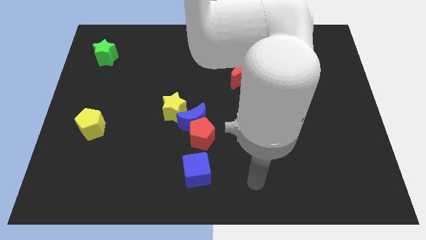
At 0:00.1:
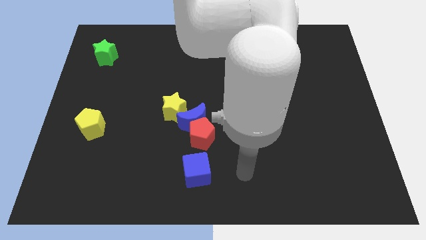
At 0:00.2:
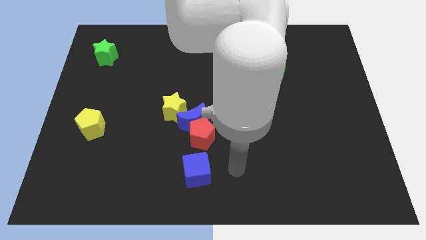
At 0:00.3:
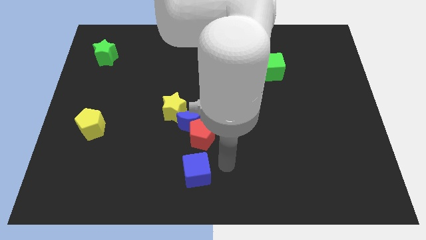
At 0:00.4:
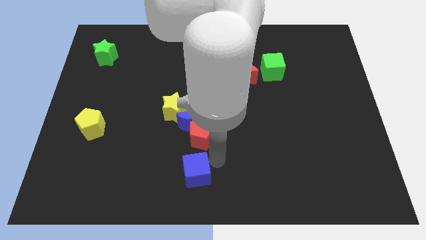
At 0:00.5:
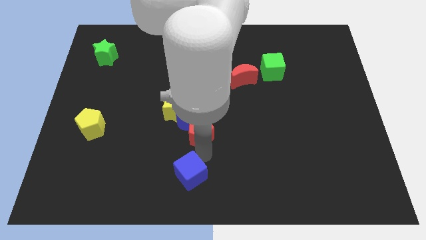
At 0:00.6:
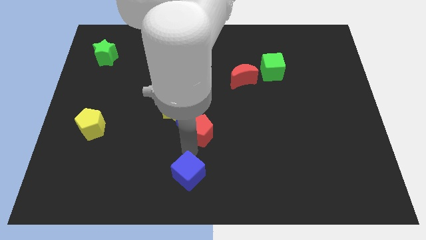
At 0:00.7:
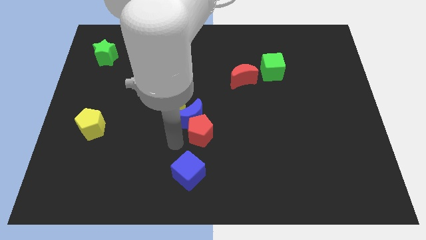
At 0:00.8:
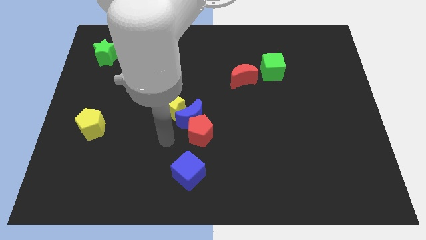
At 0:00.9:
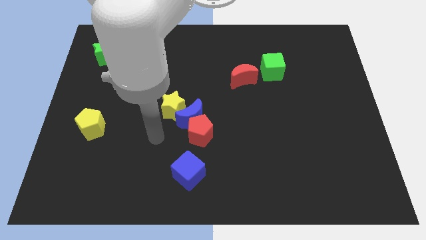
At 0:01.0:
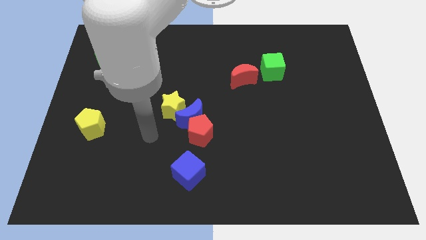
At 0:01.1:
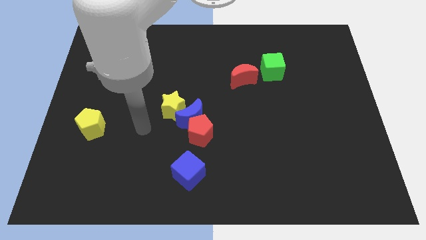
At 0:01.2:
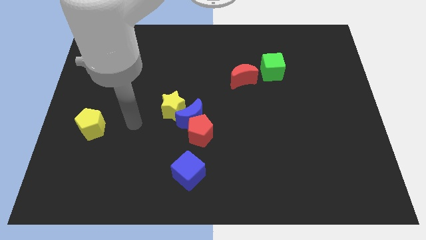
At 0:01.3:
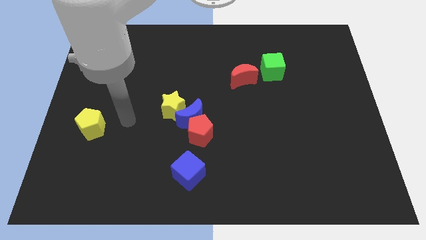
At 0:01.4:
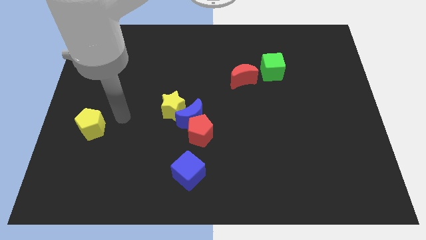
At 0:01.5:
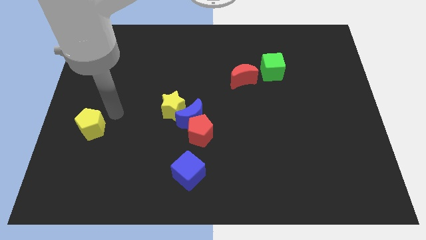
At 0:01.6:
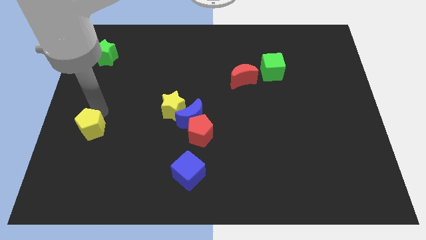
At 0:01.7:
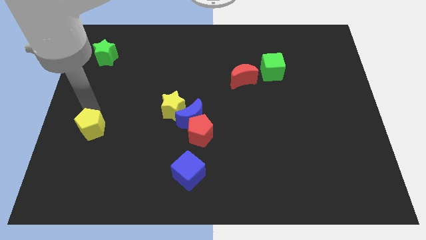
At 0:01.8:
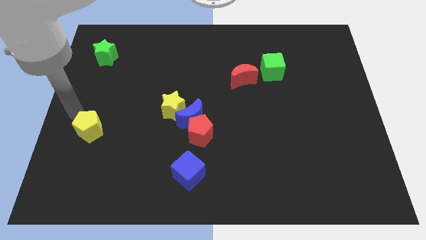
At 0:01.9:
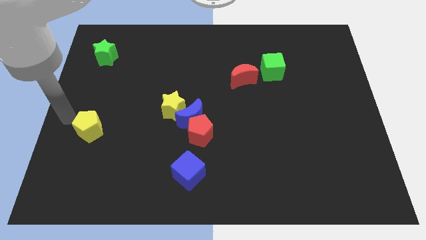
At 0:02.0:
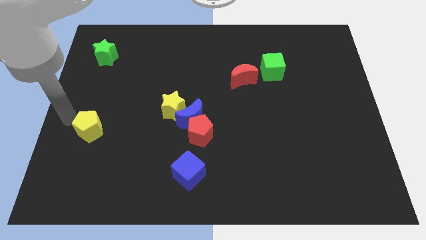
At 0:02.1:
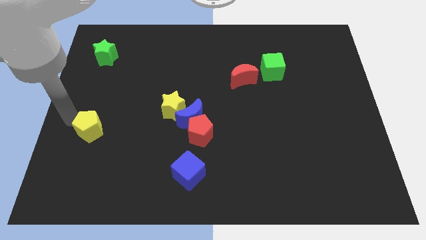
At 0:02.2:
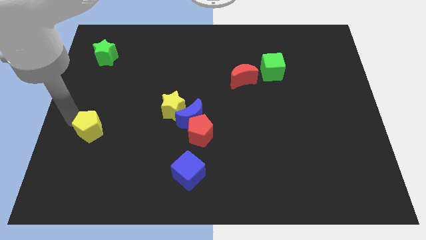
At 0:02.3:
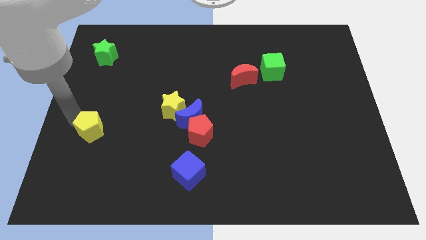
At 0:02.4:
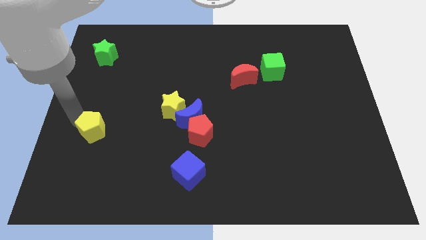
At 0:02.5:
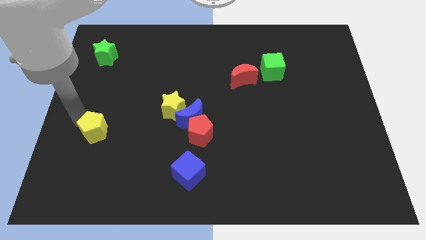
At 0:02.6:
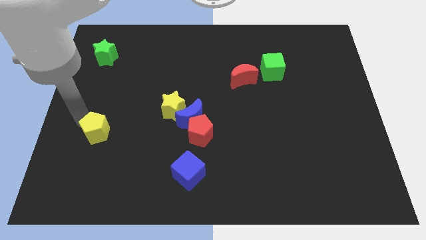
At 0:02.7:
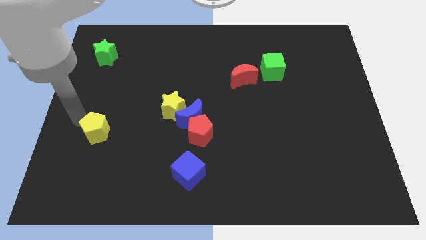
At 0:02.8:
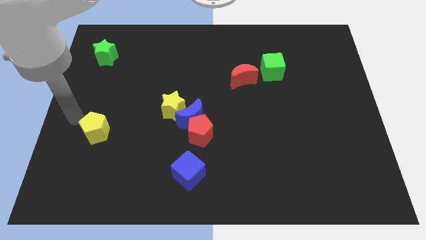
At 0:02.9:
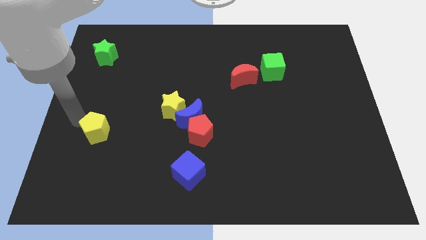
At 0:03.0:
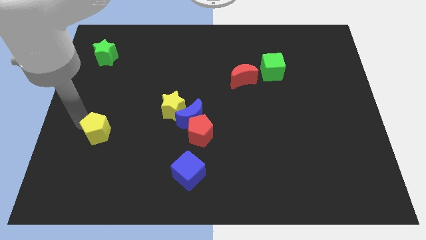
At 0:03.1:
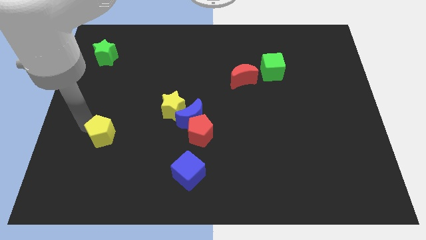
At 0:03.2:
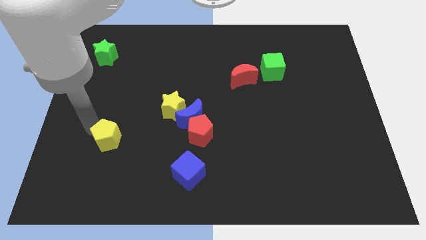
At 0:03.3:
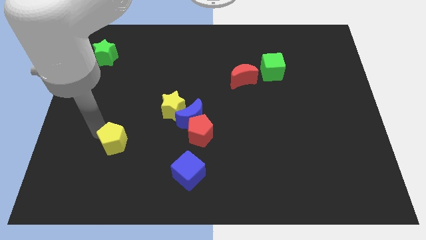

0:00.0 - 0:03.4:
slightly push the yellow pentagon diagonally down and to the right

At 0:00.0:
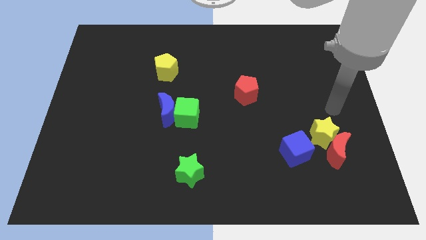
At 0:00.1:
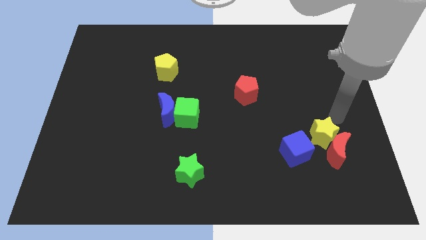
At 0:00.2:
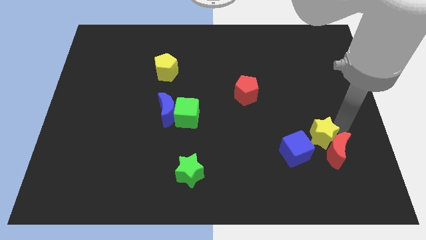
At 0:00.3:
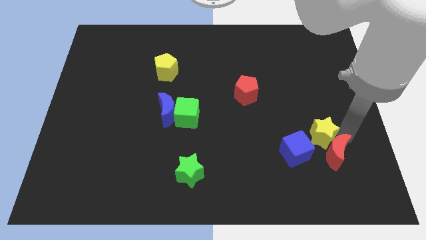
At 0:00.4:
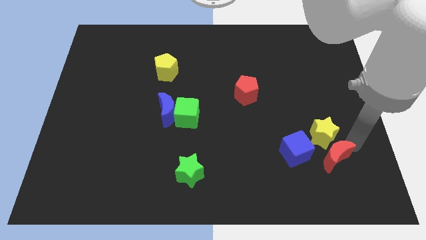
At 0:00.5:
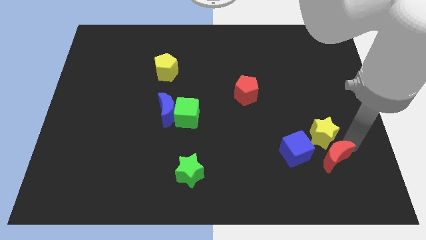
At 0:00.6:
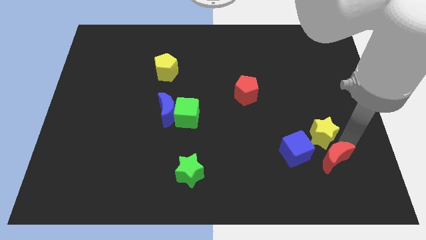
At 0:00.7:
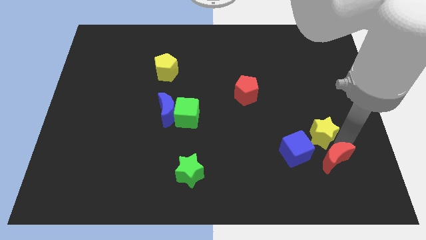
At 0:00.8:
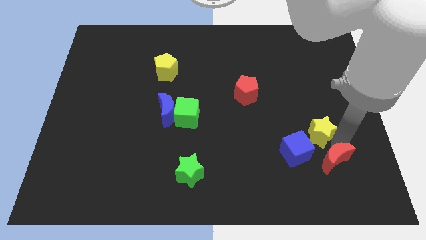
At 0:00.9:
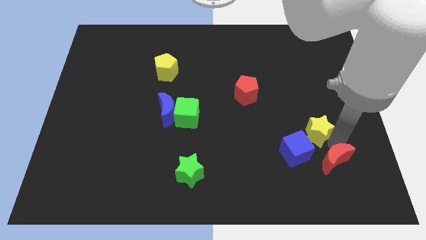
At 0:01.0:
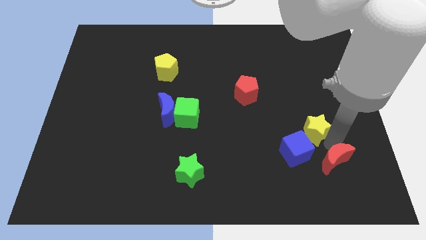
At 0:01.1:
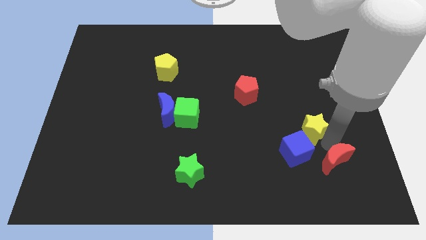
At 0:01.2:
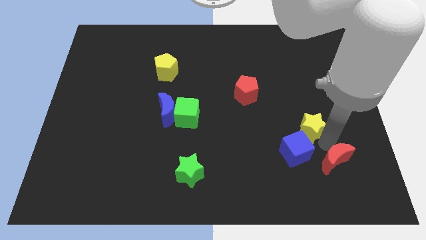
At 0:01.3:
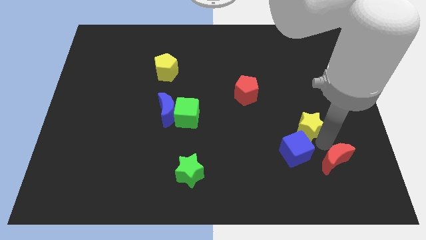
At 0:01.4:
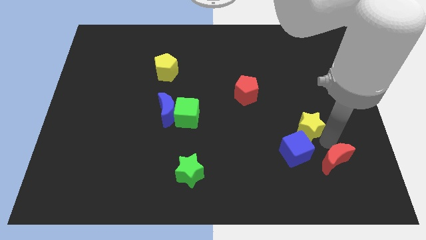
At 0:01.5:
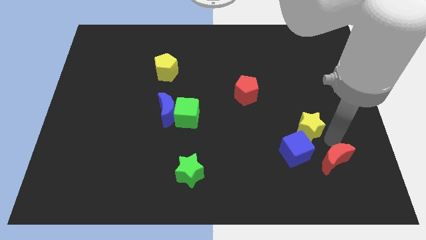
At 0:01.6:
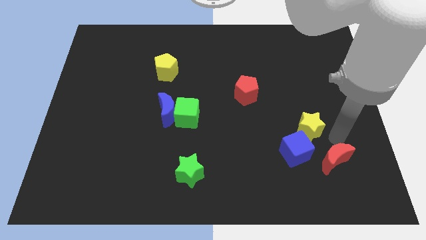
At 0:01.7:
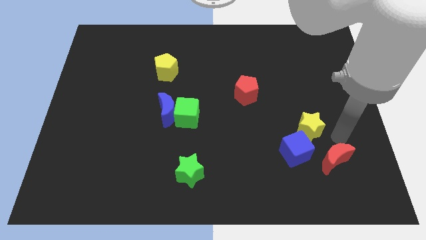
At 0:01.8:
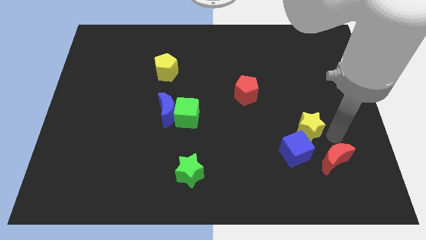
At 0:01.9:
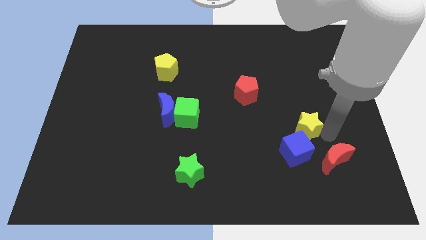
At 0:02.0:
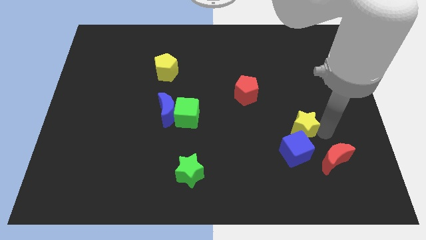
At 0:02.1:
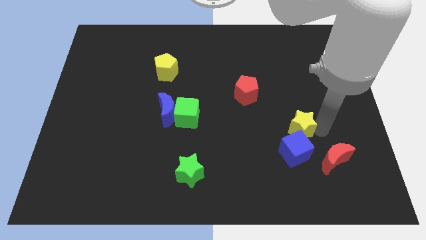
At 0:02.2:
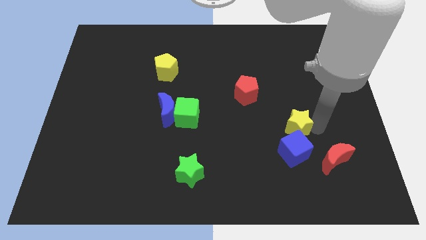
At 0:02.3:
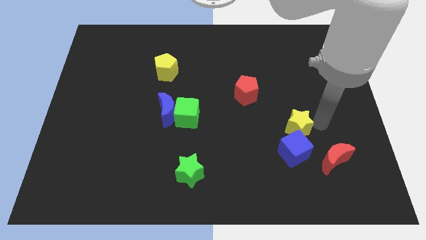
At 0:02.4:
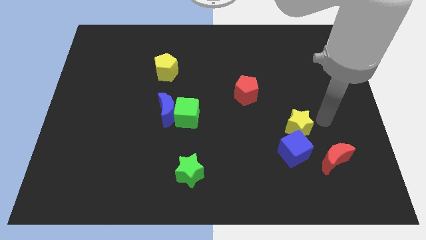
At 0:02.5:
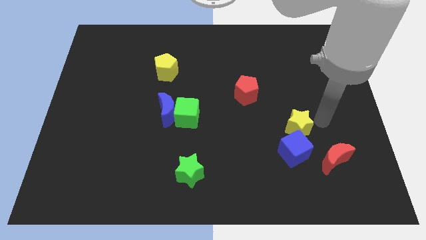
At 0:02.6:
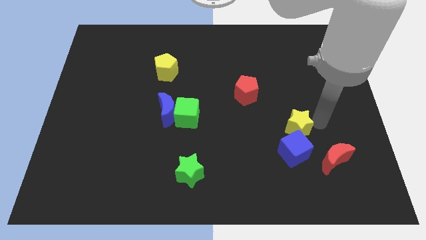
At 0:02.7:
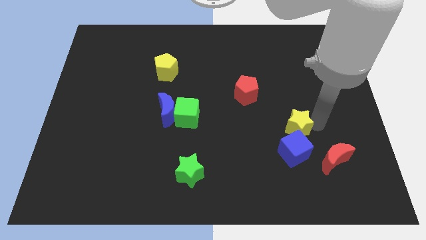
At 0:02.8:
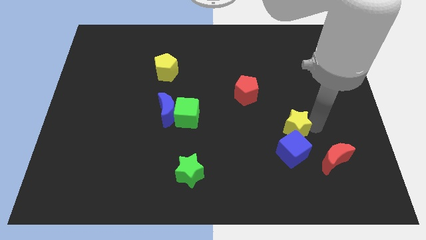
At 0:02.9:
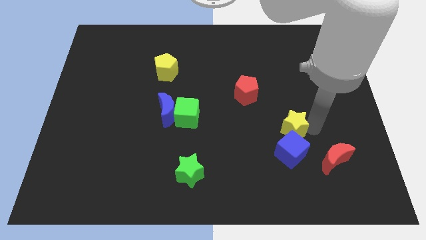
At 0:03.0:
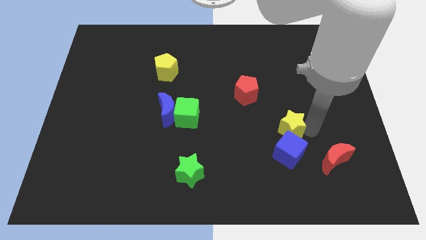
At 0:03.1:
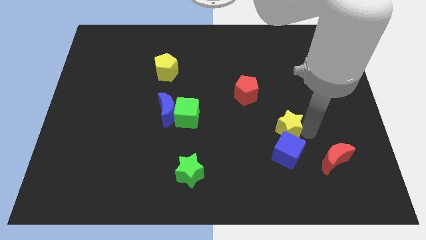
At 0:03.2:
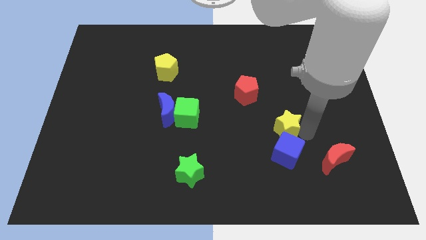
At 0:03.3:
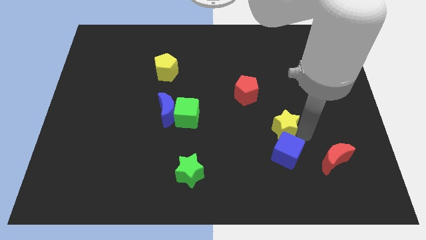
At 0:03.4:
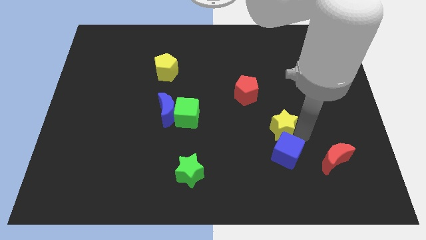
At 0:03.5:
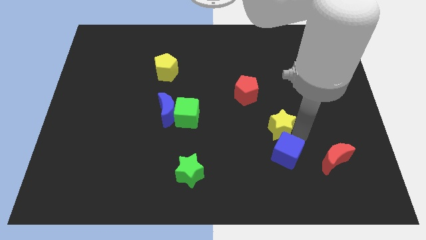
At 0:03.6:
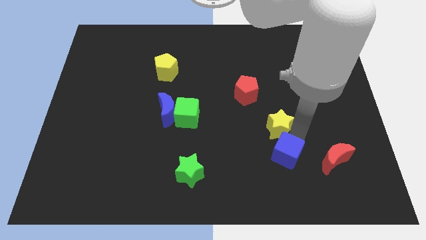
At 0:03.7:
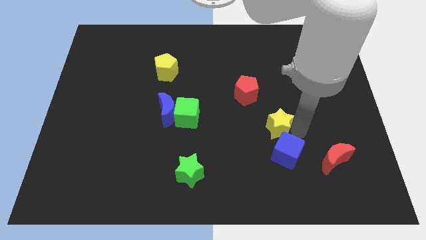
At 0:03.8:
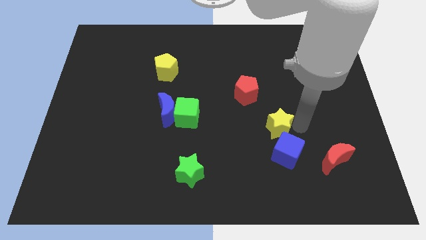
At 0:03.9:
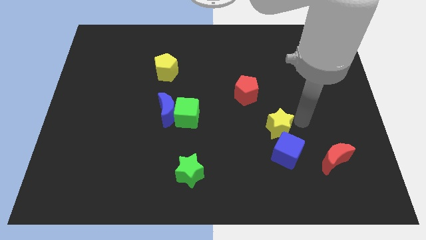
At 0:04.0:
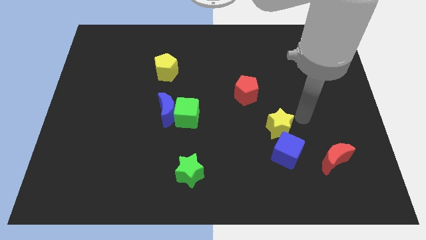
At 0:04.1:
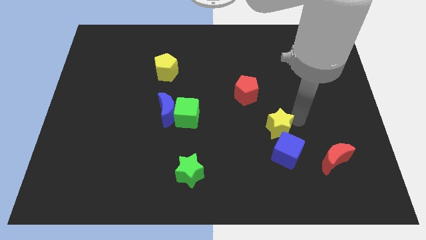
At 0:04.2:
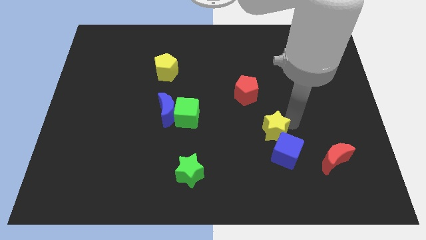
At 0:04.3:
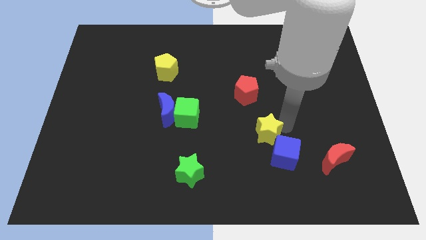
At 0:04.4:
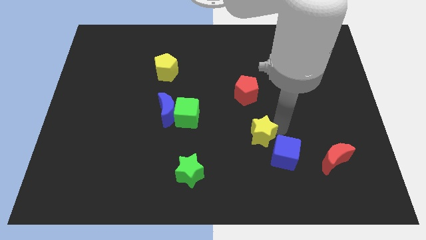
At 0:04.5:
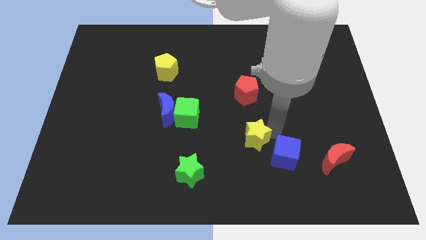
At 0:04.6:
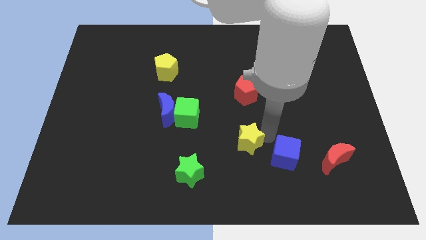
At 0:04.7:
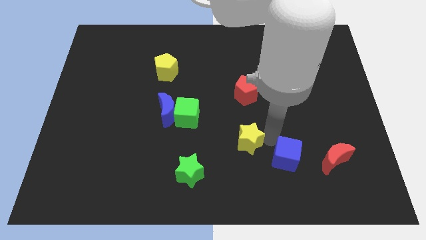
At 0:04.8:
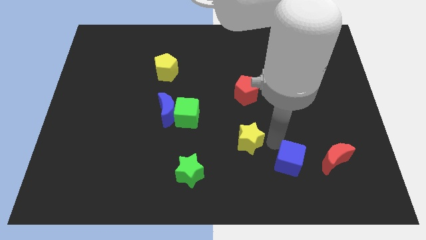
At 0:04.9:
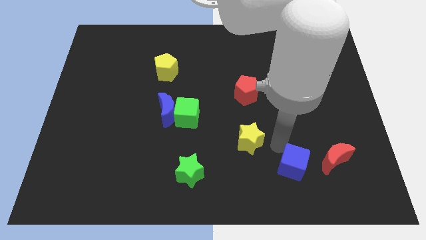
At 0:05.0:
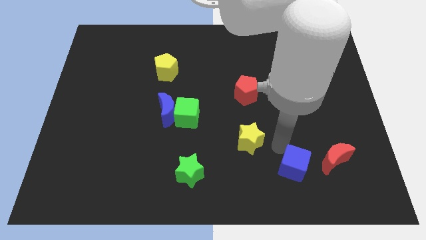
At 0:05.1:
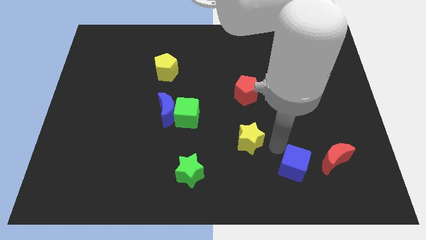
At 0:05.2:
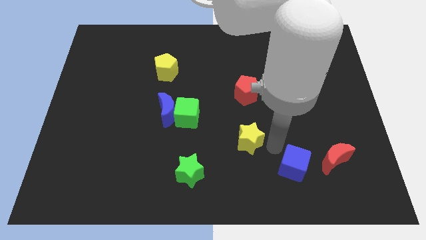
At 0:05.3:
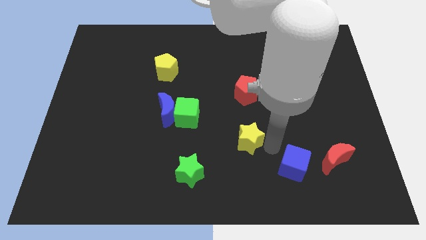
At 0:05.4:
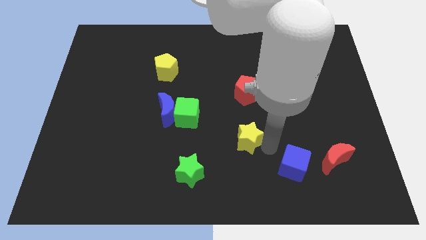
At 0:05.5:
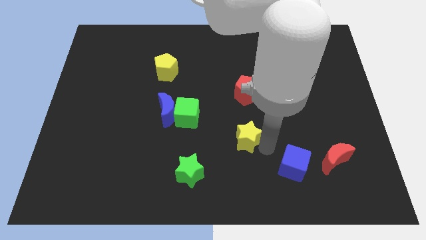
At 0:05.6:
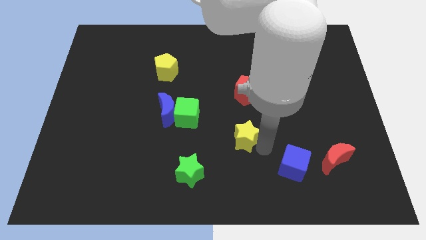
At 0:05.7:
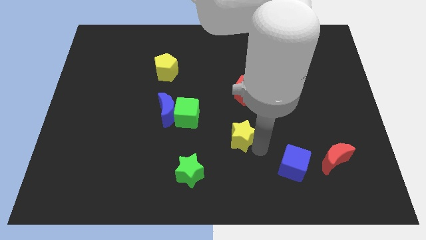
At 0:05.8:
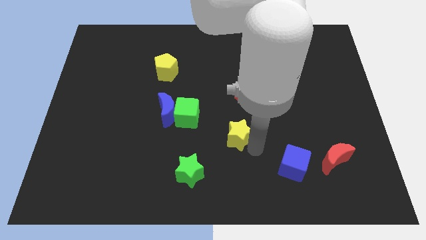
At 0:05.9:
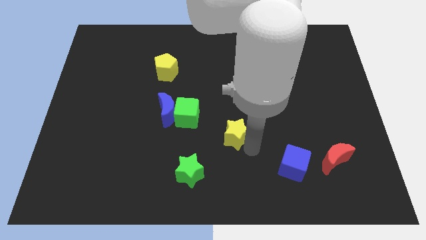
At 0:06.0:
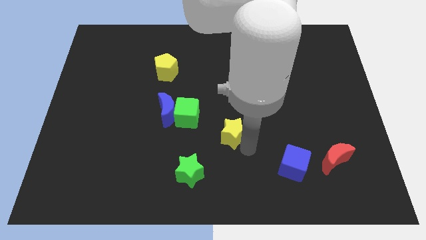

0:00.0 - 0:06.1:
move the yellow star left
